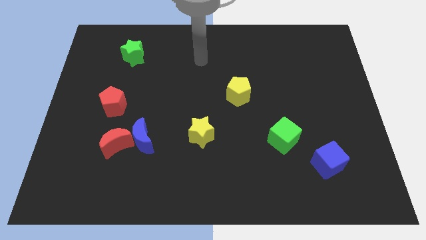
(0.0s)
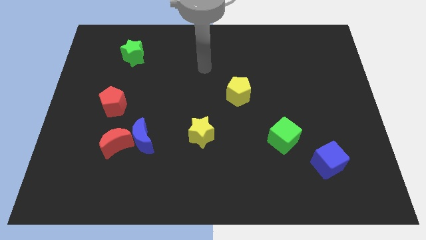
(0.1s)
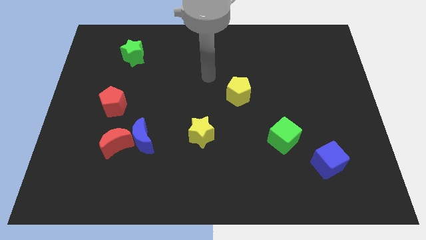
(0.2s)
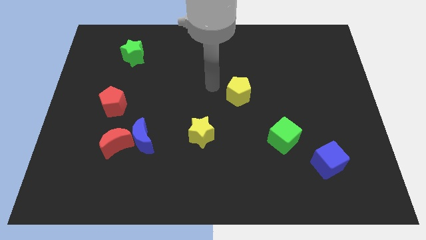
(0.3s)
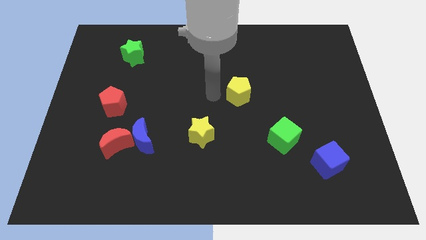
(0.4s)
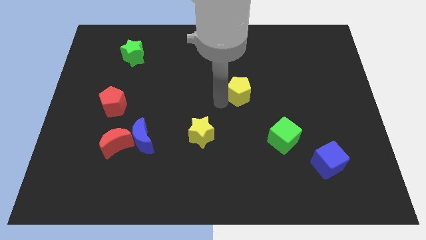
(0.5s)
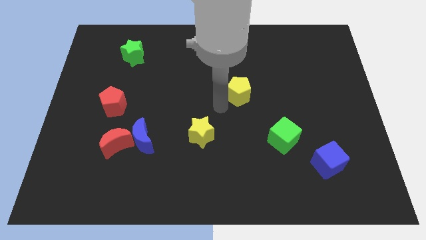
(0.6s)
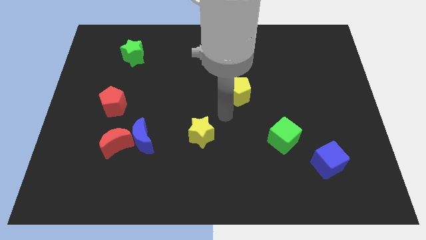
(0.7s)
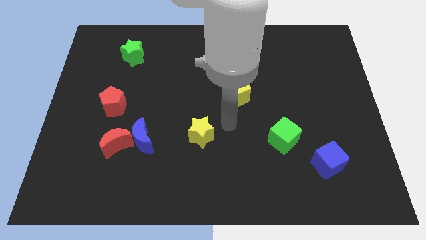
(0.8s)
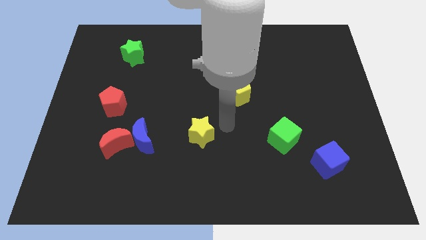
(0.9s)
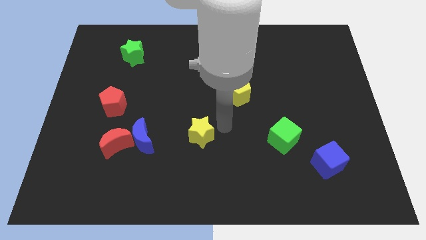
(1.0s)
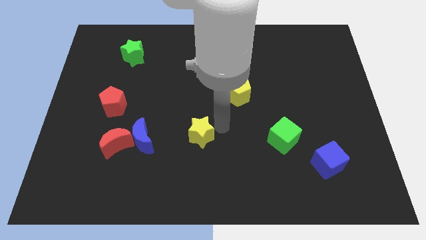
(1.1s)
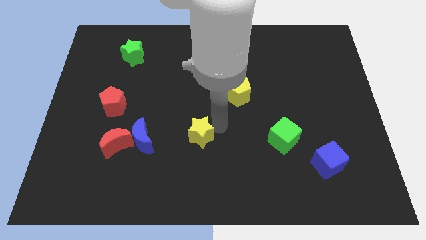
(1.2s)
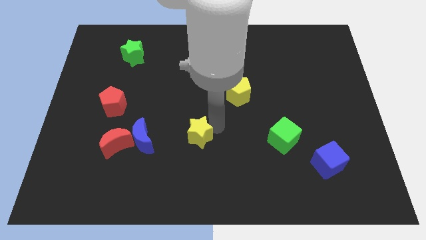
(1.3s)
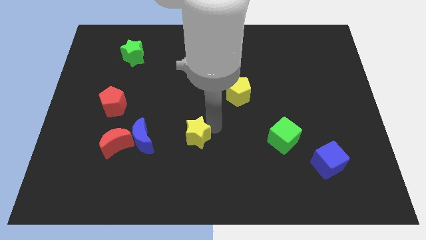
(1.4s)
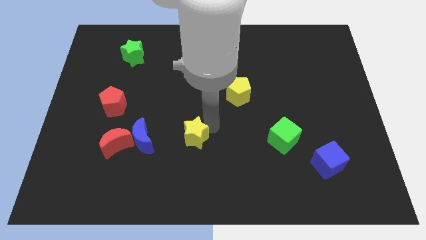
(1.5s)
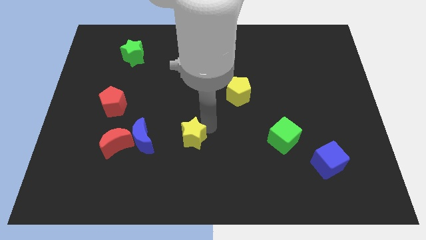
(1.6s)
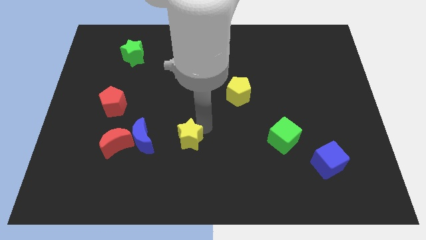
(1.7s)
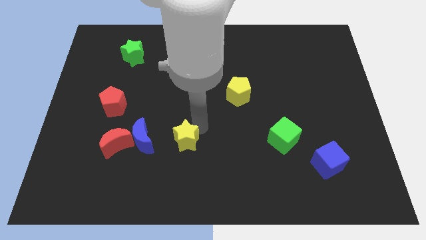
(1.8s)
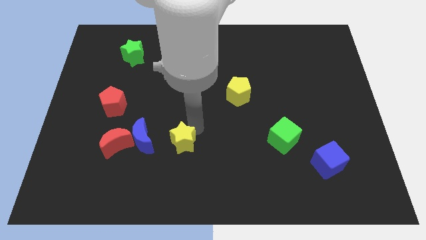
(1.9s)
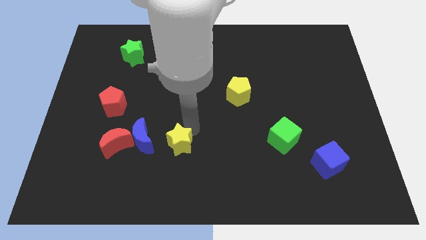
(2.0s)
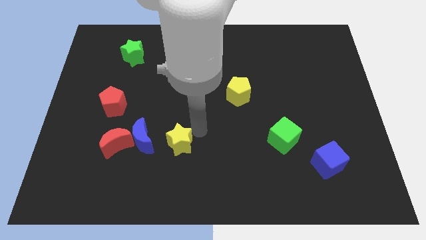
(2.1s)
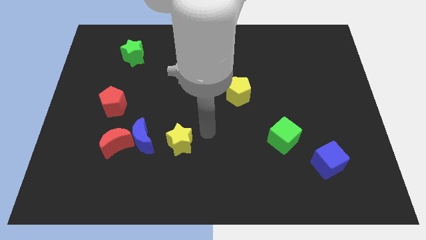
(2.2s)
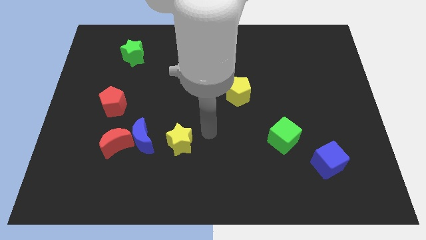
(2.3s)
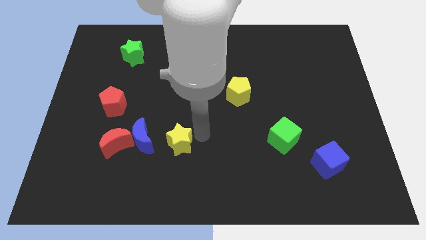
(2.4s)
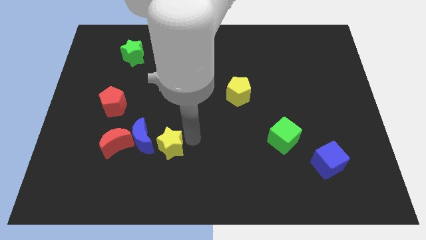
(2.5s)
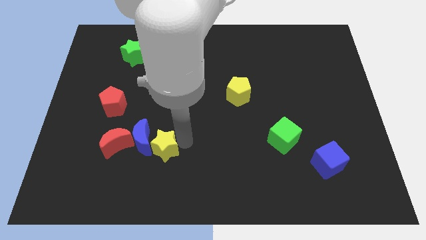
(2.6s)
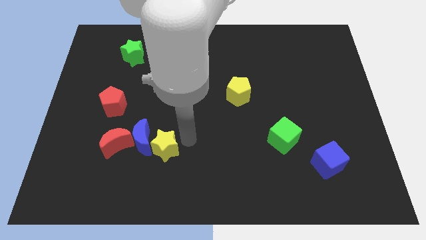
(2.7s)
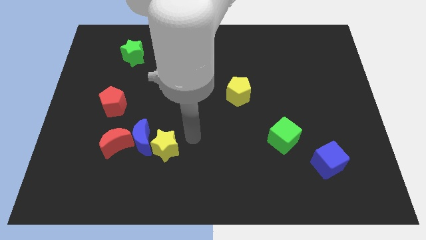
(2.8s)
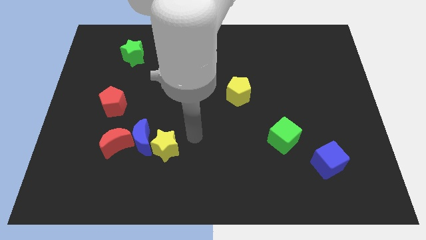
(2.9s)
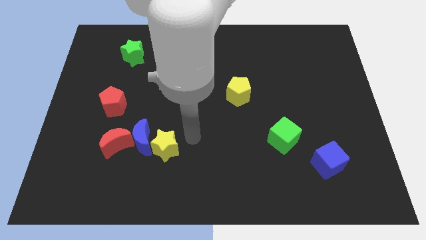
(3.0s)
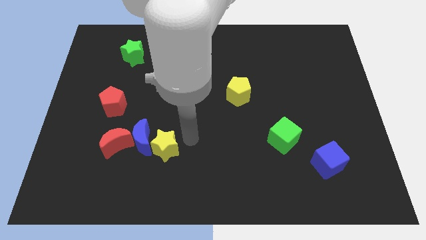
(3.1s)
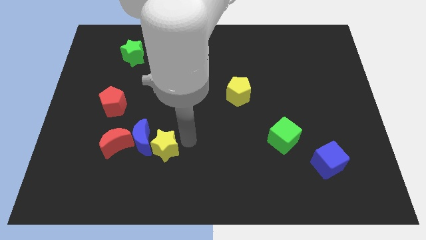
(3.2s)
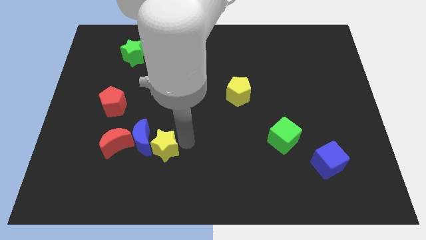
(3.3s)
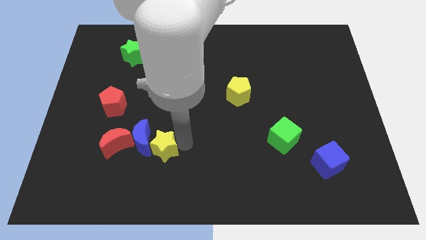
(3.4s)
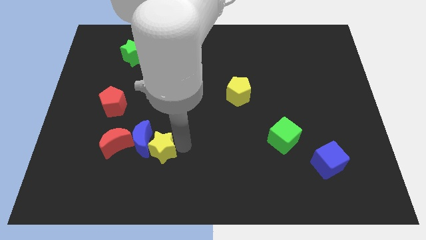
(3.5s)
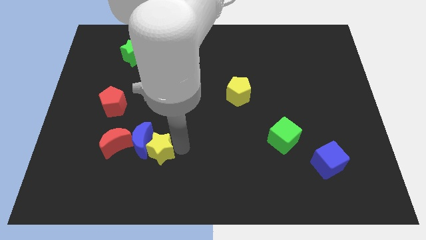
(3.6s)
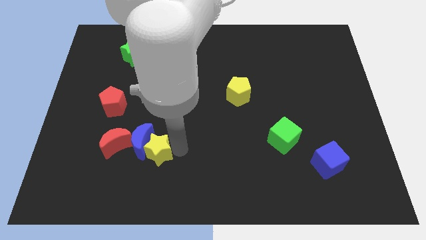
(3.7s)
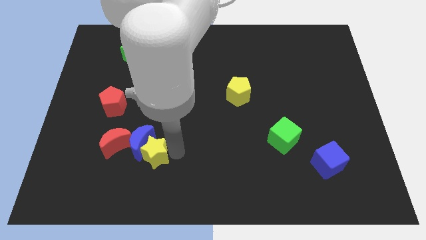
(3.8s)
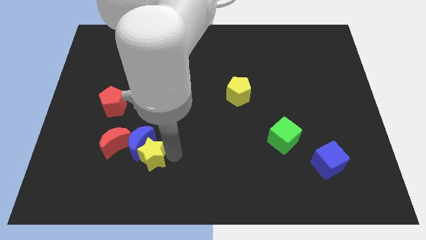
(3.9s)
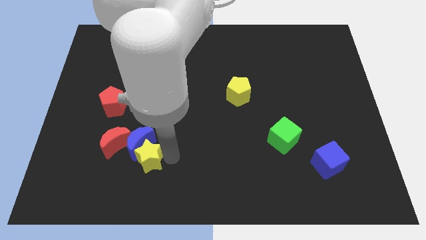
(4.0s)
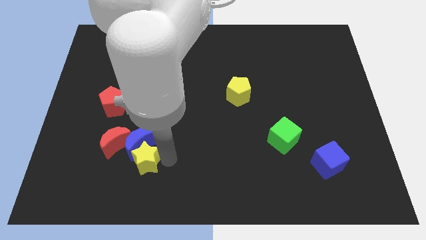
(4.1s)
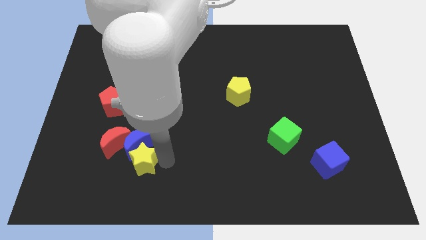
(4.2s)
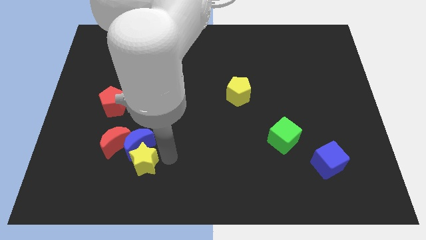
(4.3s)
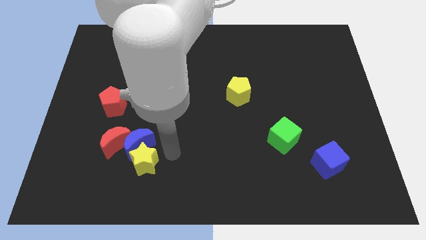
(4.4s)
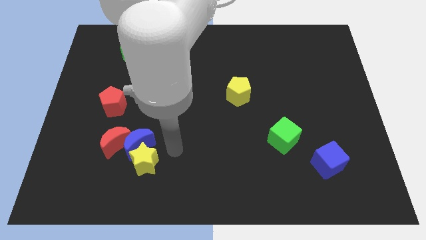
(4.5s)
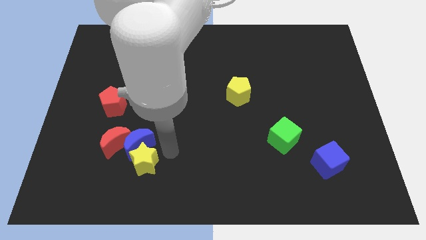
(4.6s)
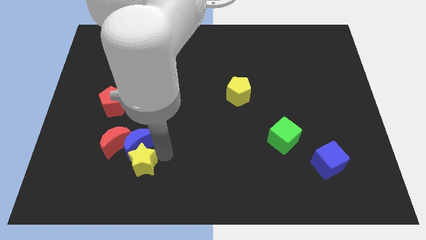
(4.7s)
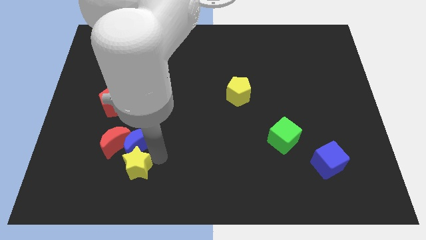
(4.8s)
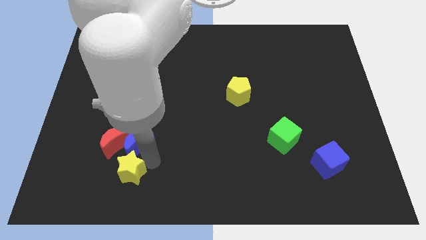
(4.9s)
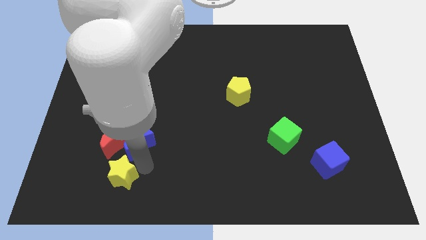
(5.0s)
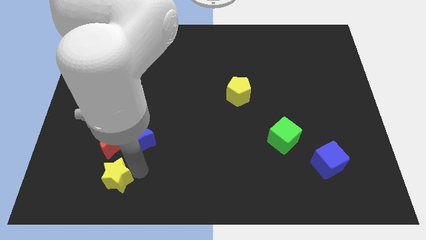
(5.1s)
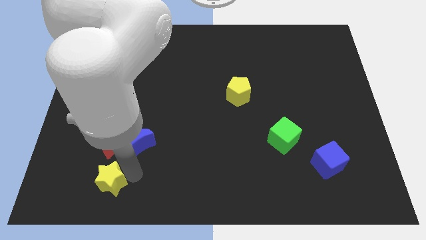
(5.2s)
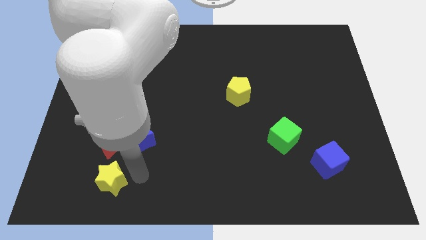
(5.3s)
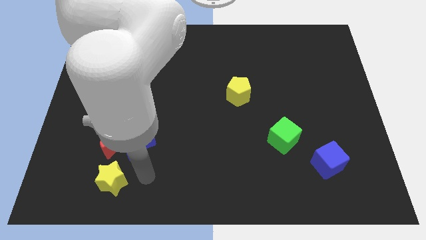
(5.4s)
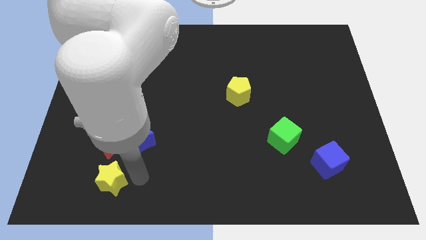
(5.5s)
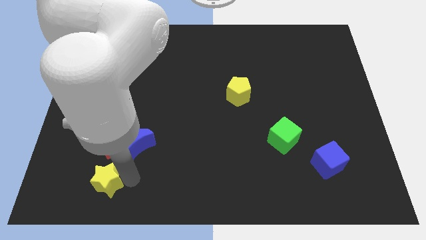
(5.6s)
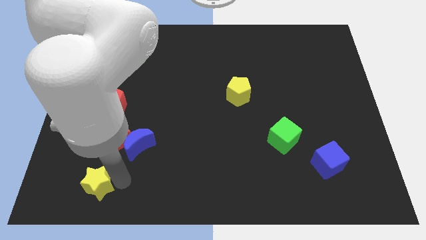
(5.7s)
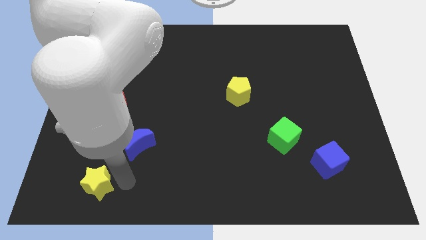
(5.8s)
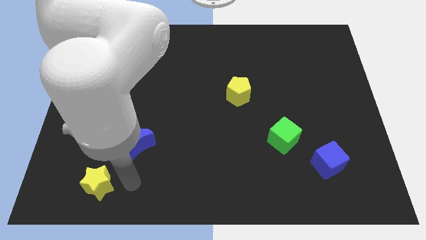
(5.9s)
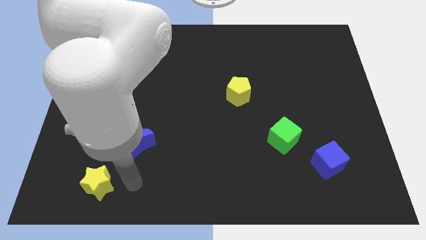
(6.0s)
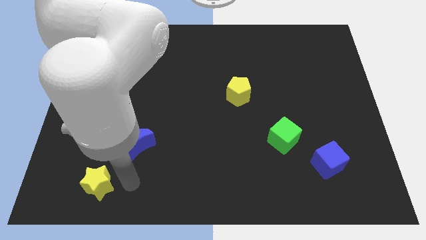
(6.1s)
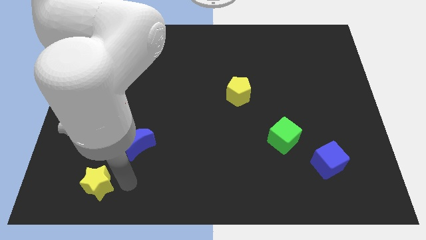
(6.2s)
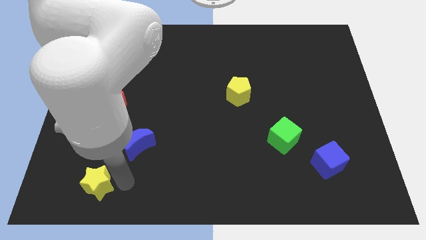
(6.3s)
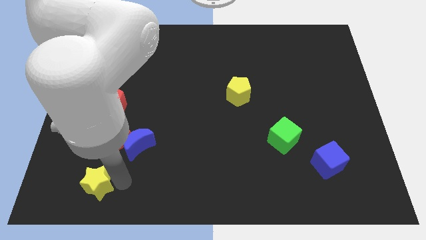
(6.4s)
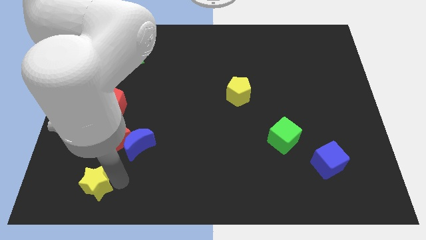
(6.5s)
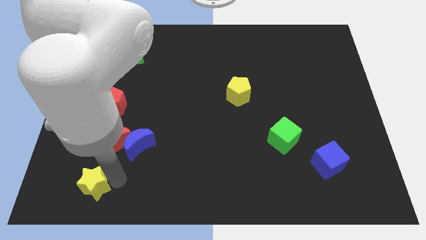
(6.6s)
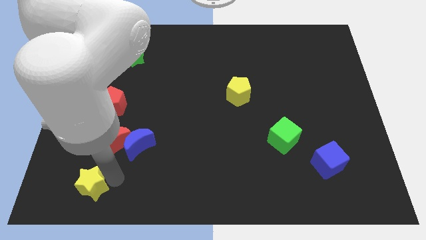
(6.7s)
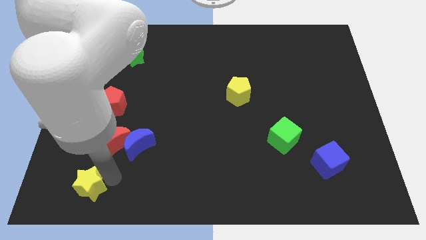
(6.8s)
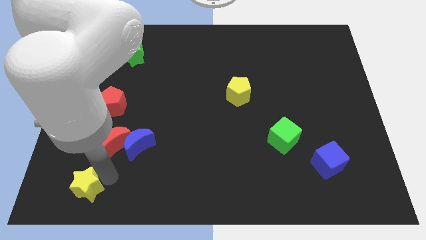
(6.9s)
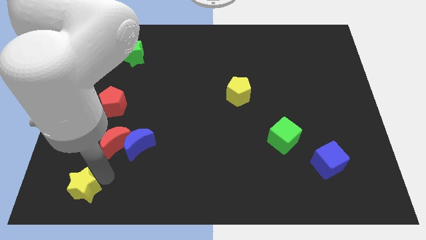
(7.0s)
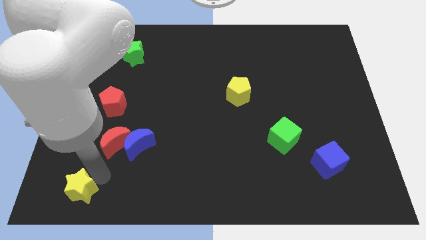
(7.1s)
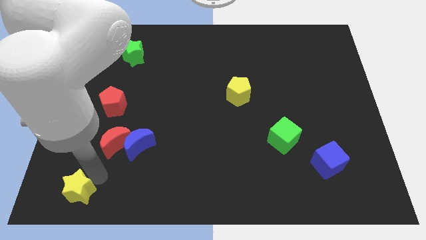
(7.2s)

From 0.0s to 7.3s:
slide the yellow star to the bottom left
